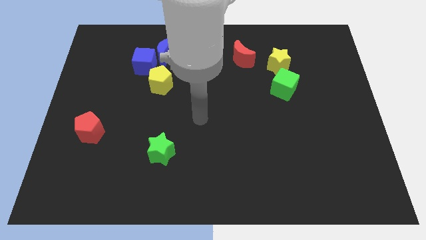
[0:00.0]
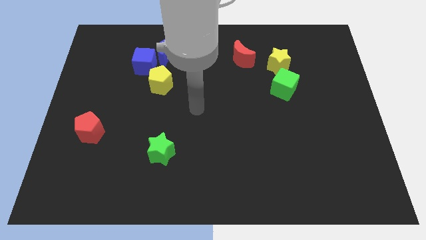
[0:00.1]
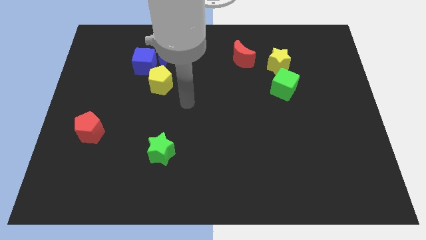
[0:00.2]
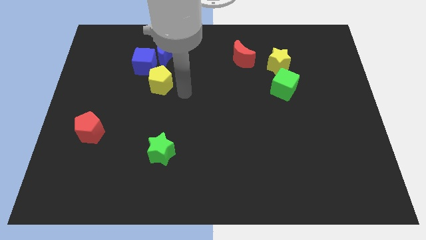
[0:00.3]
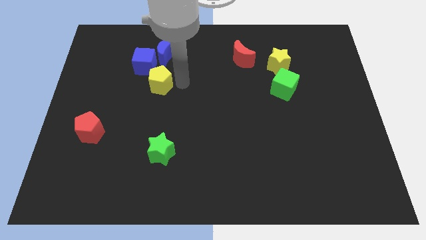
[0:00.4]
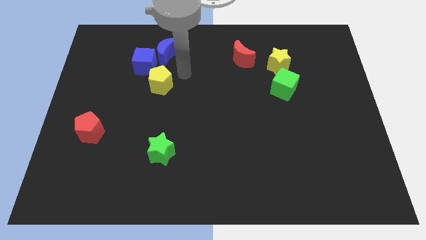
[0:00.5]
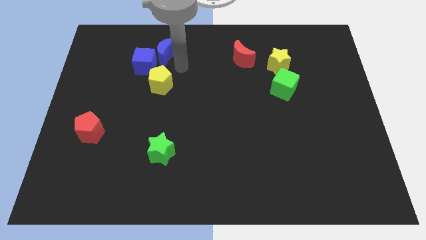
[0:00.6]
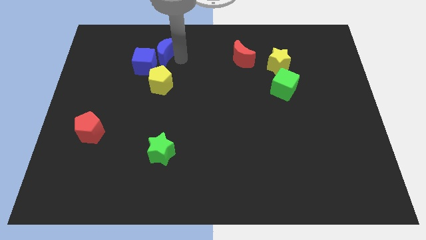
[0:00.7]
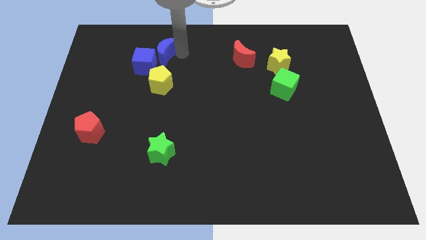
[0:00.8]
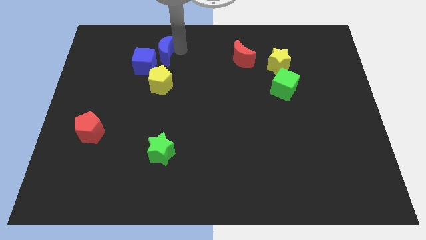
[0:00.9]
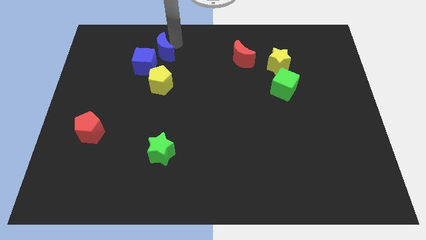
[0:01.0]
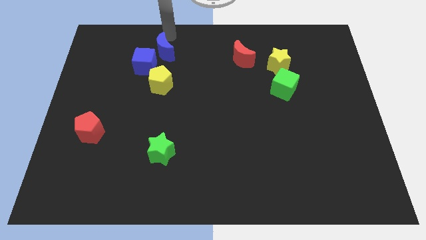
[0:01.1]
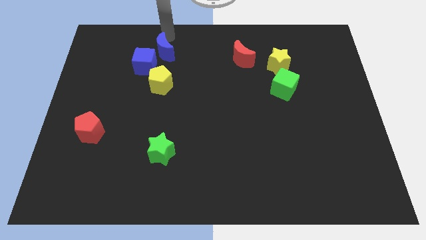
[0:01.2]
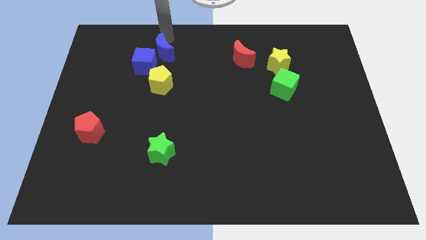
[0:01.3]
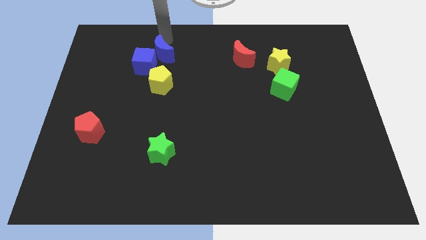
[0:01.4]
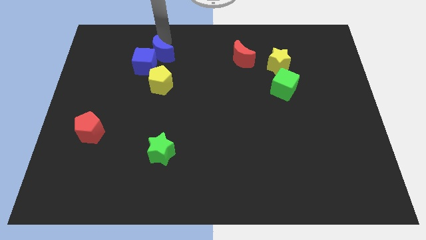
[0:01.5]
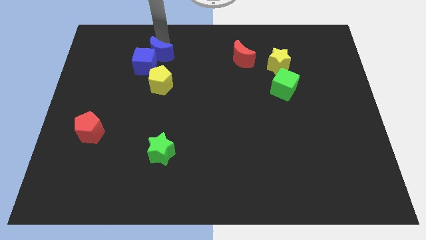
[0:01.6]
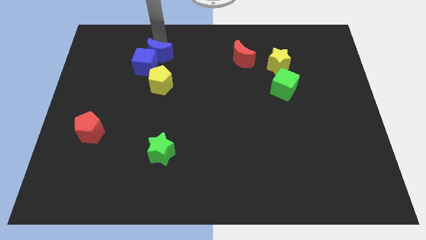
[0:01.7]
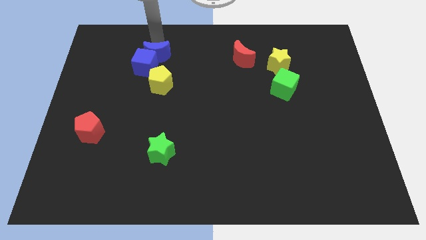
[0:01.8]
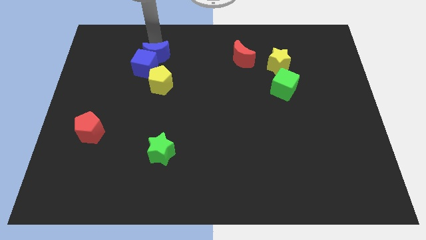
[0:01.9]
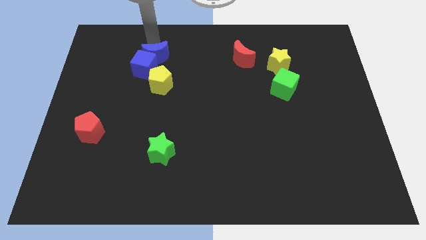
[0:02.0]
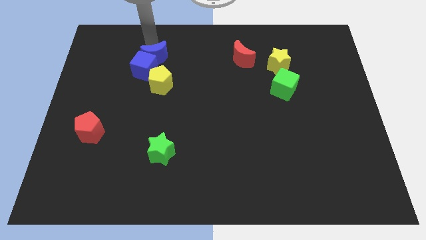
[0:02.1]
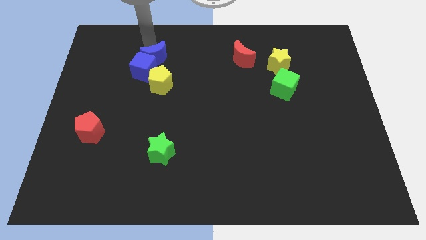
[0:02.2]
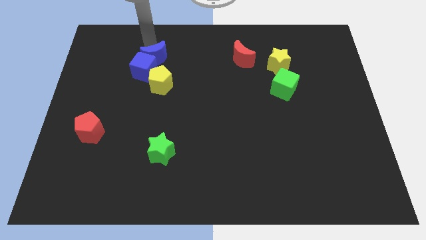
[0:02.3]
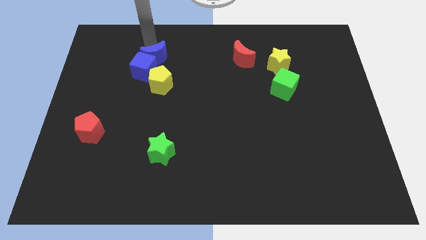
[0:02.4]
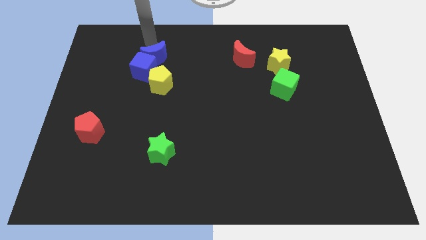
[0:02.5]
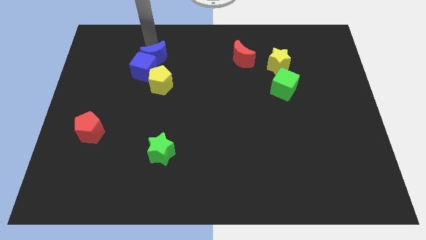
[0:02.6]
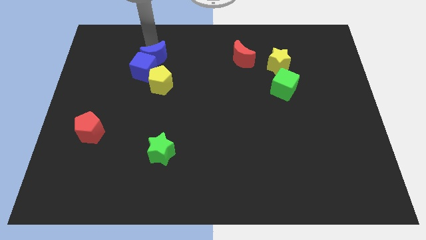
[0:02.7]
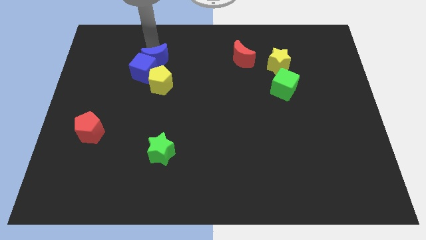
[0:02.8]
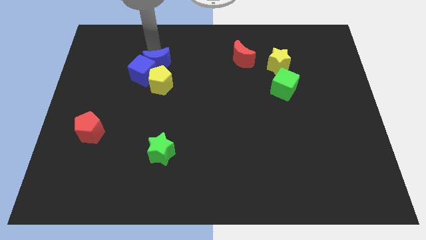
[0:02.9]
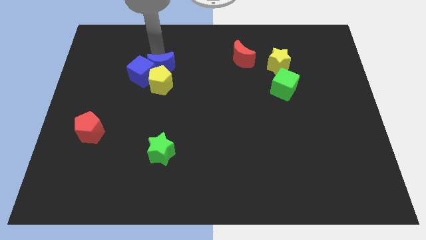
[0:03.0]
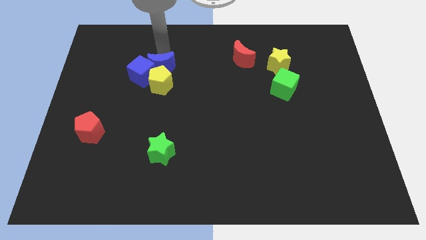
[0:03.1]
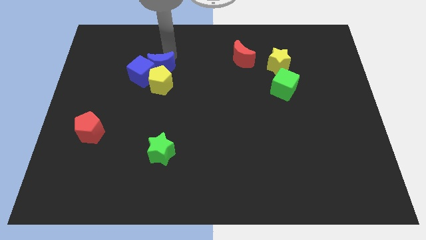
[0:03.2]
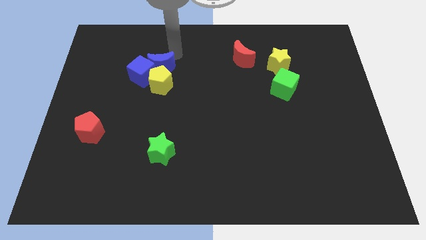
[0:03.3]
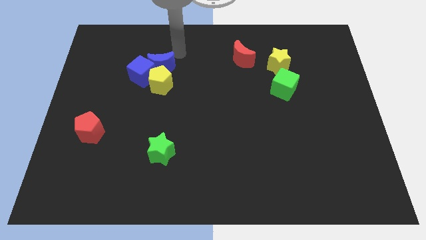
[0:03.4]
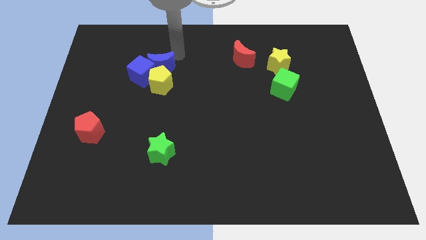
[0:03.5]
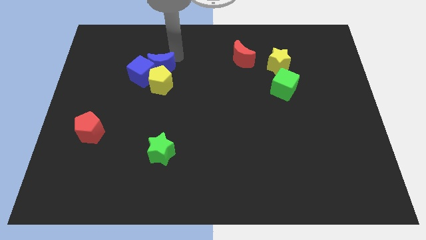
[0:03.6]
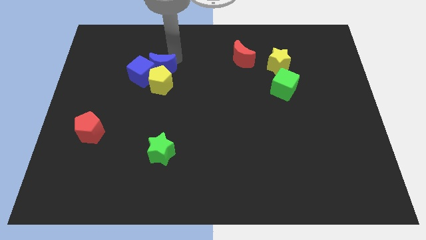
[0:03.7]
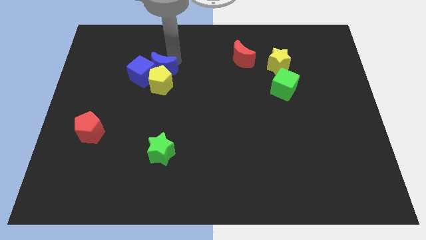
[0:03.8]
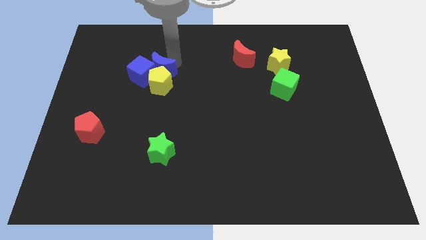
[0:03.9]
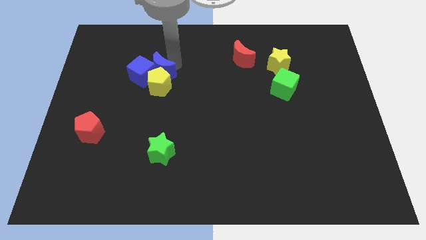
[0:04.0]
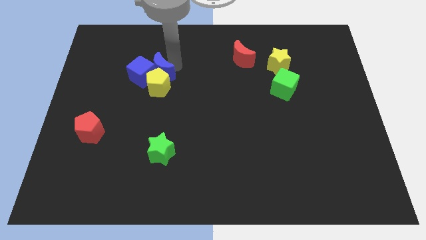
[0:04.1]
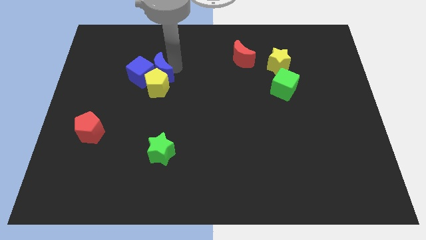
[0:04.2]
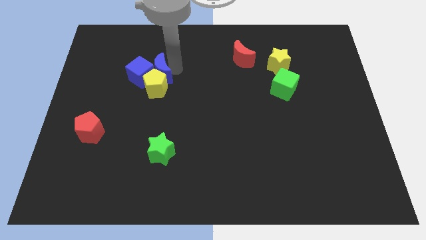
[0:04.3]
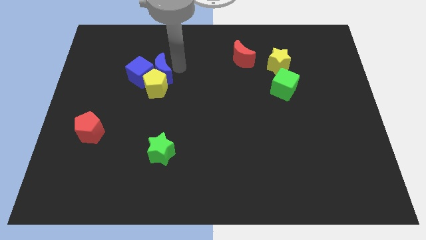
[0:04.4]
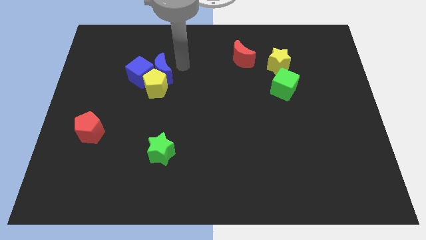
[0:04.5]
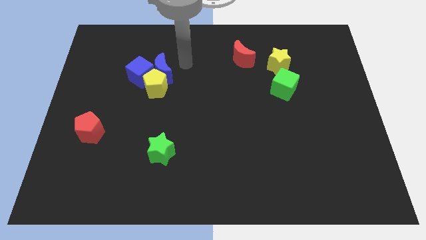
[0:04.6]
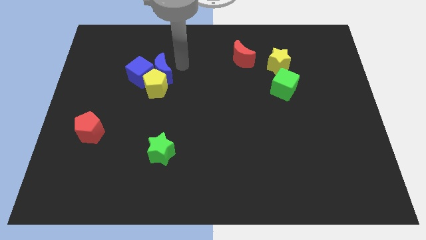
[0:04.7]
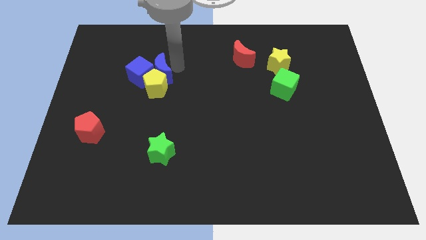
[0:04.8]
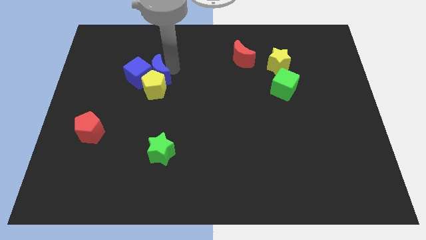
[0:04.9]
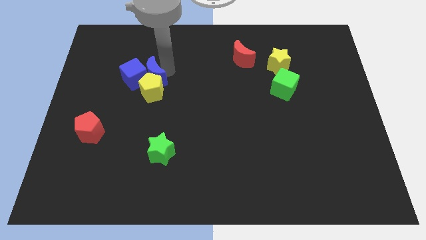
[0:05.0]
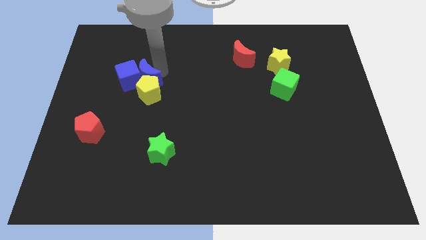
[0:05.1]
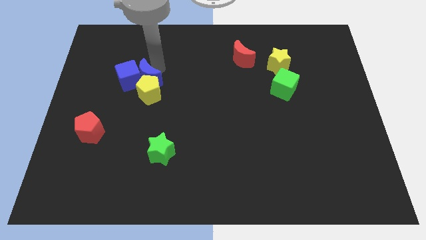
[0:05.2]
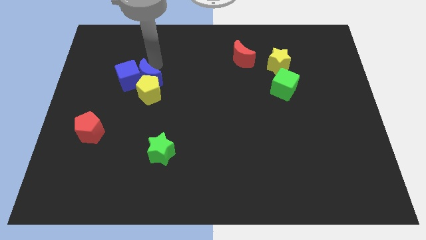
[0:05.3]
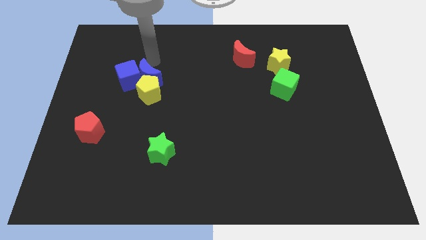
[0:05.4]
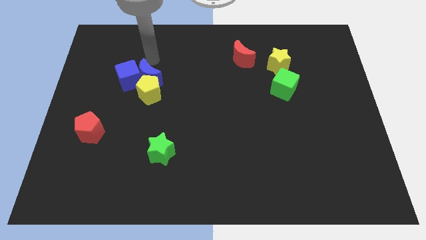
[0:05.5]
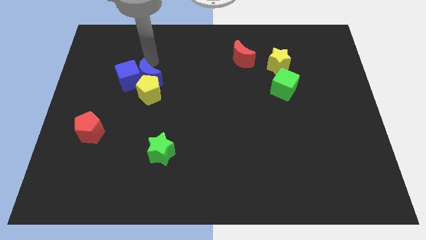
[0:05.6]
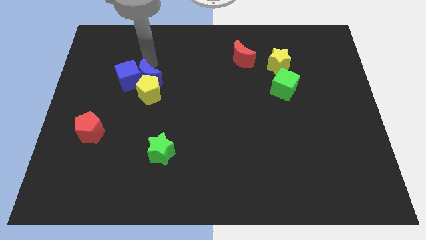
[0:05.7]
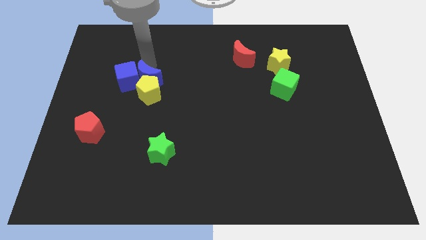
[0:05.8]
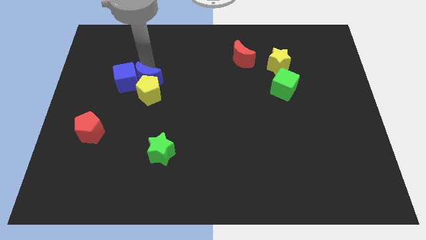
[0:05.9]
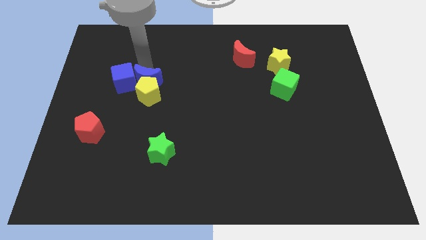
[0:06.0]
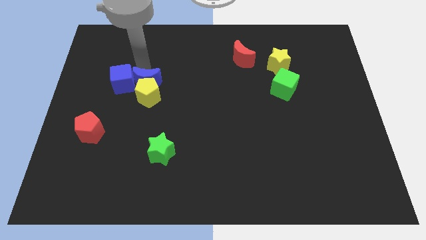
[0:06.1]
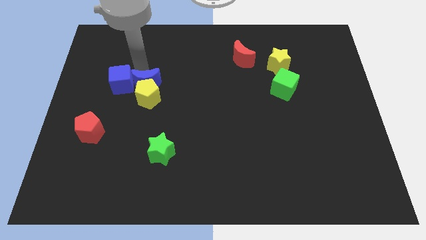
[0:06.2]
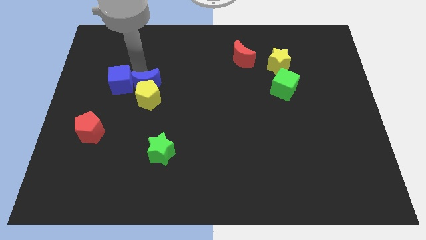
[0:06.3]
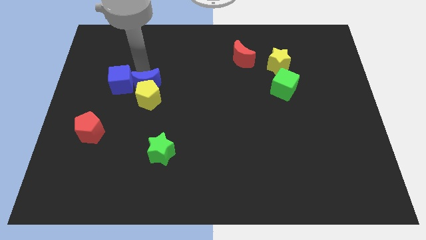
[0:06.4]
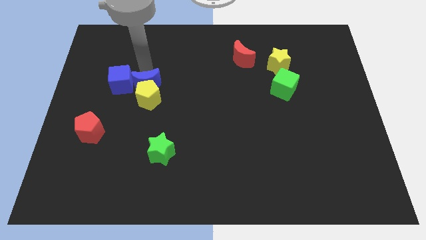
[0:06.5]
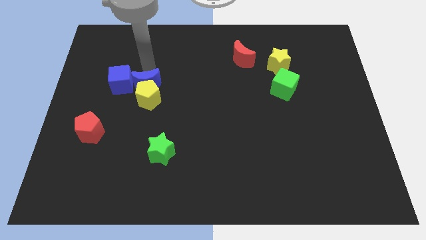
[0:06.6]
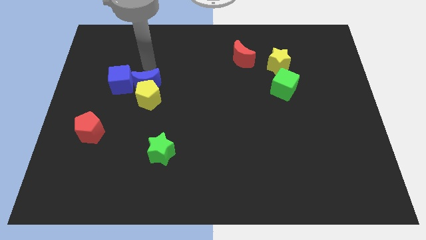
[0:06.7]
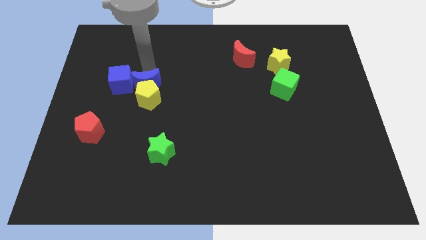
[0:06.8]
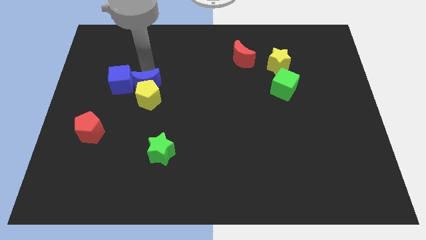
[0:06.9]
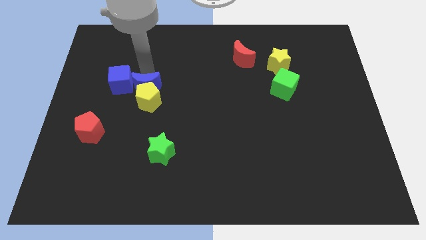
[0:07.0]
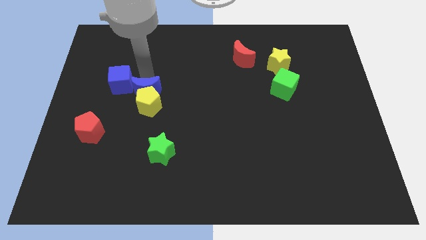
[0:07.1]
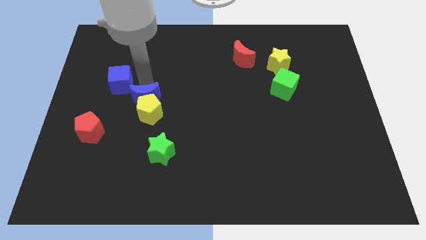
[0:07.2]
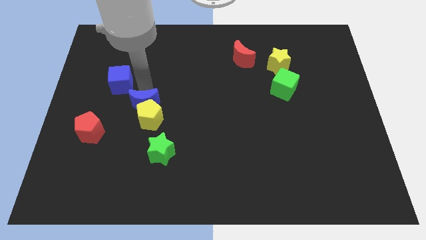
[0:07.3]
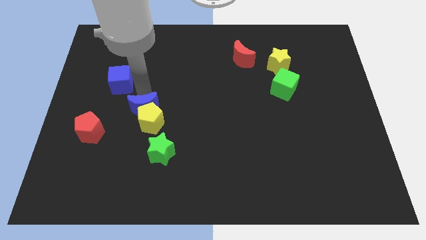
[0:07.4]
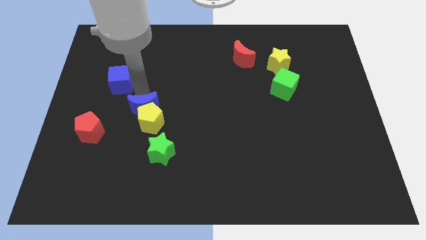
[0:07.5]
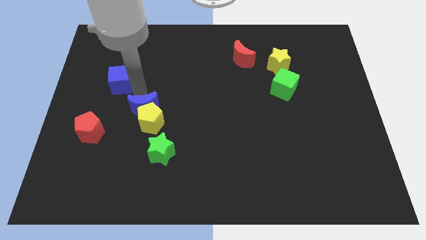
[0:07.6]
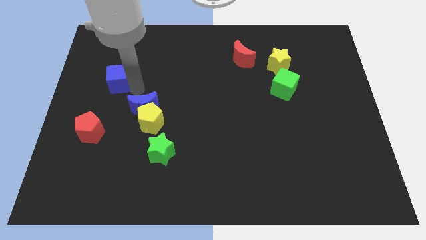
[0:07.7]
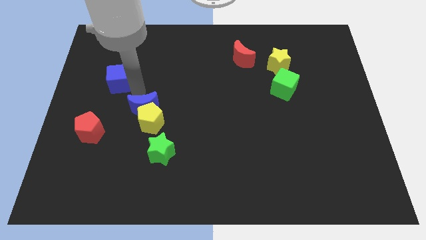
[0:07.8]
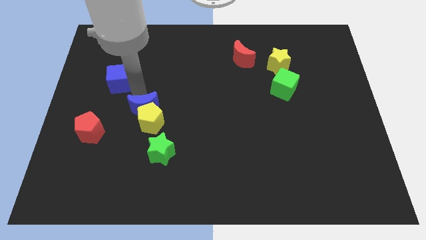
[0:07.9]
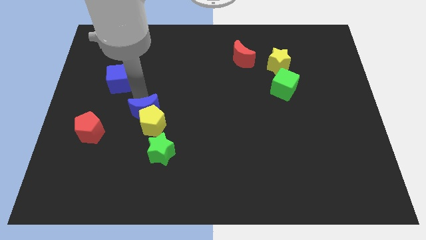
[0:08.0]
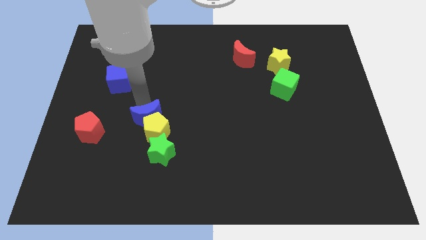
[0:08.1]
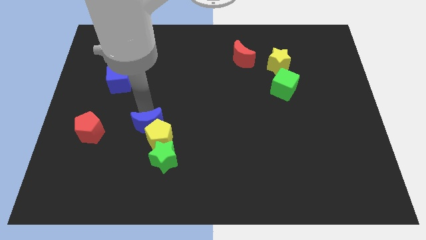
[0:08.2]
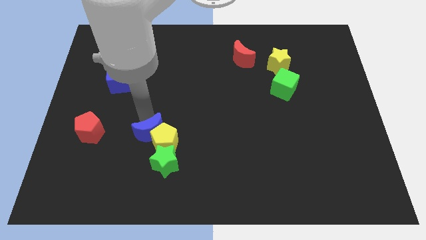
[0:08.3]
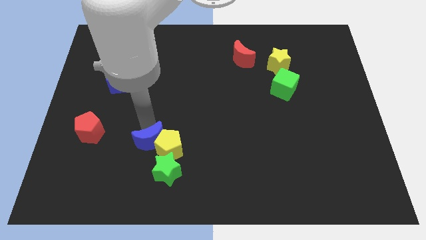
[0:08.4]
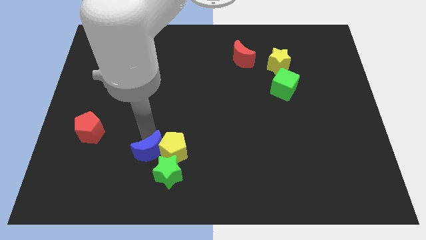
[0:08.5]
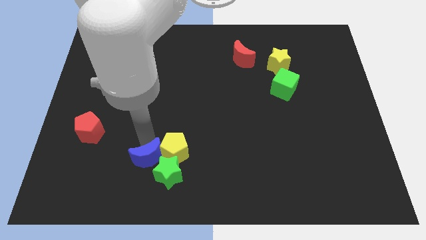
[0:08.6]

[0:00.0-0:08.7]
slide the blue moon close to the green star
